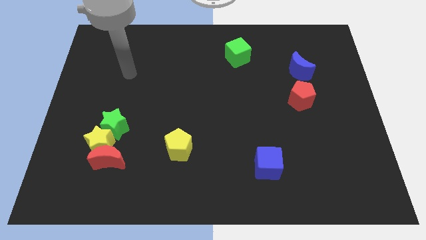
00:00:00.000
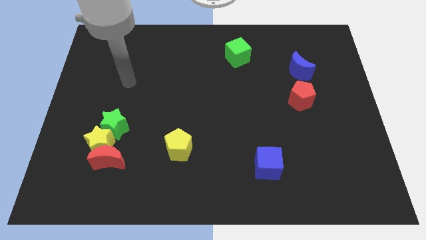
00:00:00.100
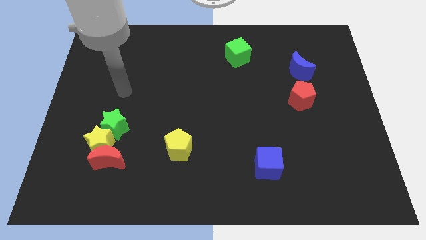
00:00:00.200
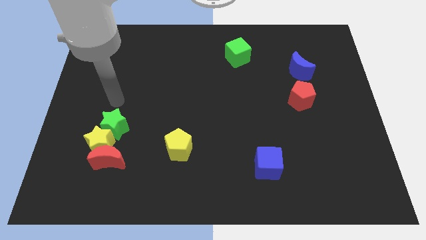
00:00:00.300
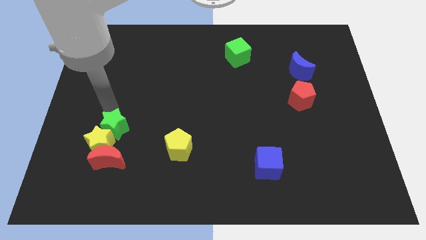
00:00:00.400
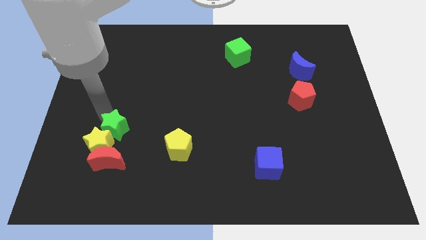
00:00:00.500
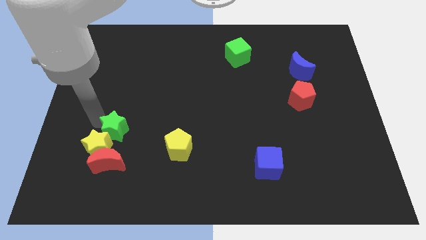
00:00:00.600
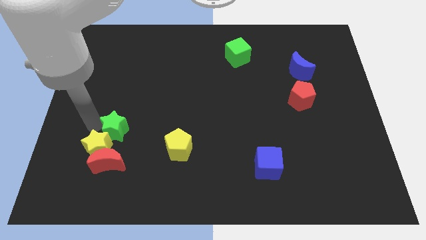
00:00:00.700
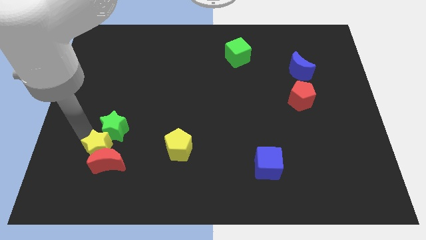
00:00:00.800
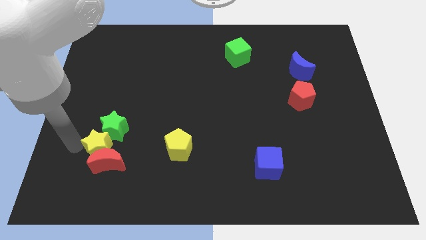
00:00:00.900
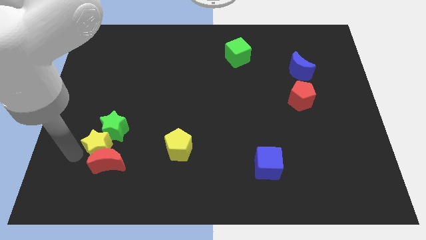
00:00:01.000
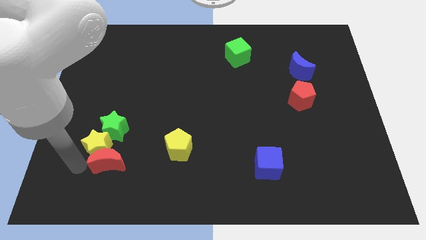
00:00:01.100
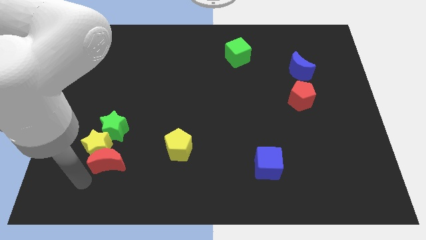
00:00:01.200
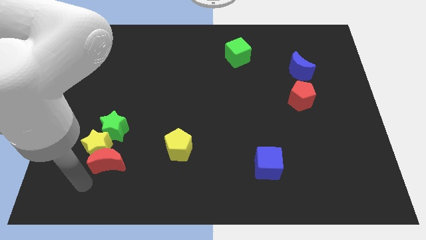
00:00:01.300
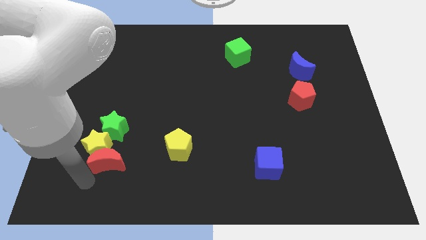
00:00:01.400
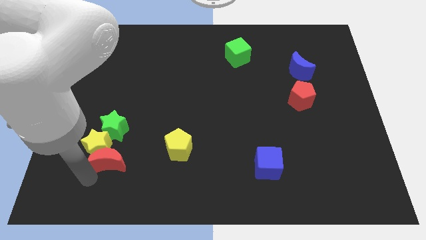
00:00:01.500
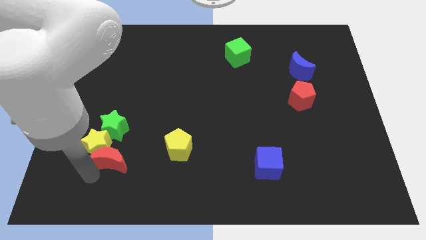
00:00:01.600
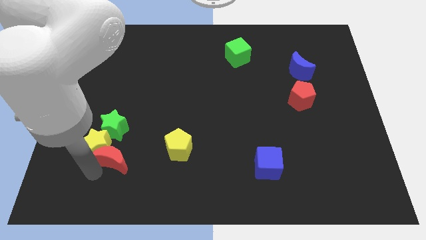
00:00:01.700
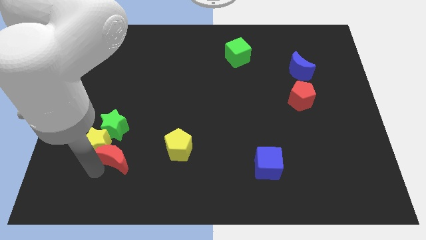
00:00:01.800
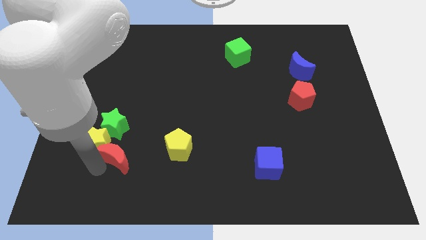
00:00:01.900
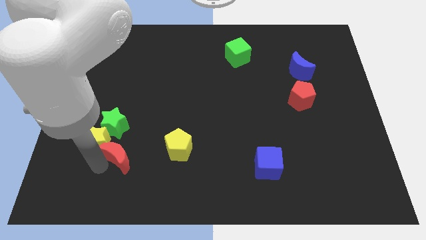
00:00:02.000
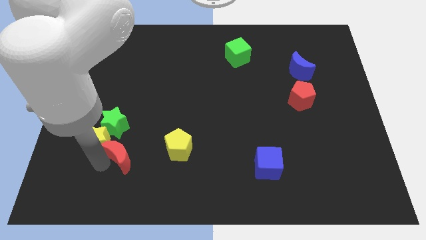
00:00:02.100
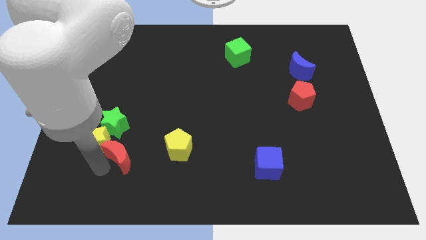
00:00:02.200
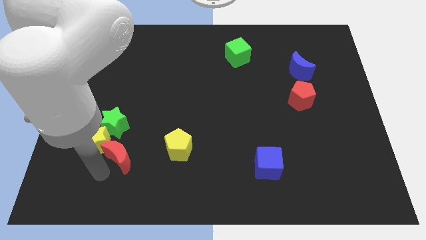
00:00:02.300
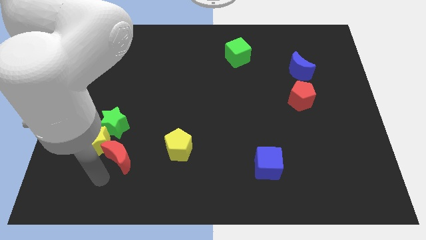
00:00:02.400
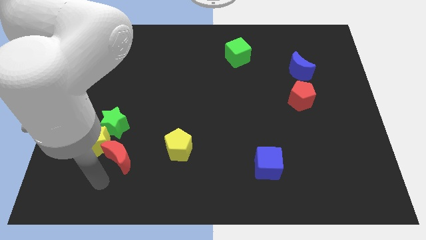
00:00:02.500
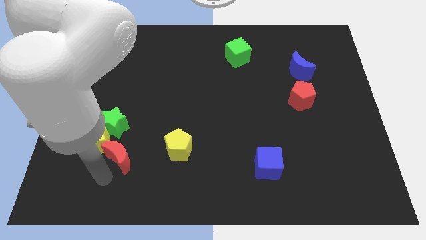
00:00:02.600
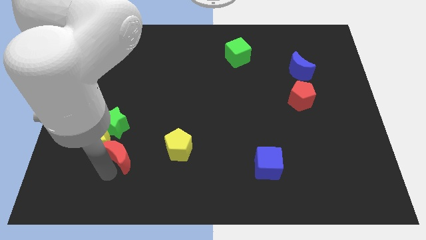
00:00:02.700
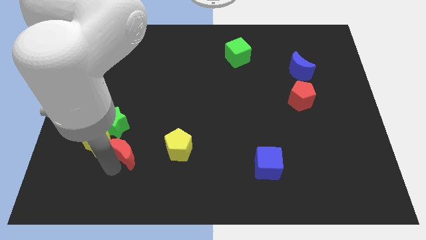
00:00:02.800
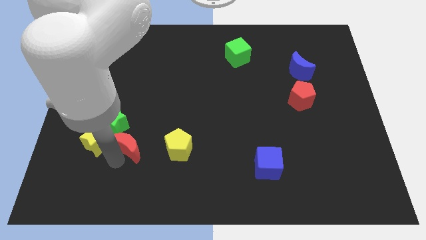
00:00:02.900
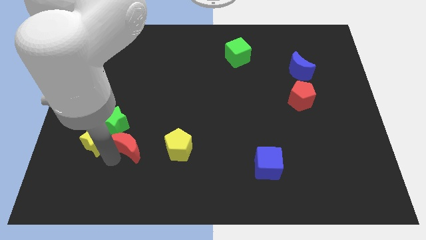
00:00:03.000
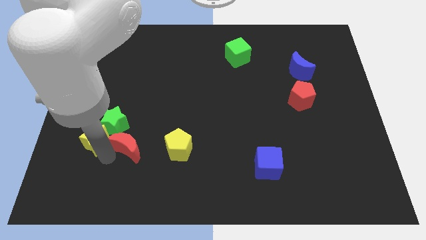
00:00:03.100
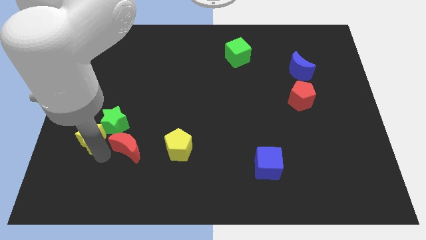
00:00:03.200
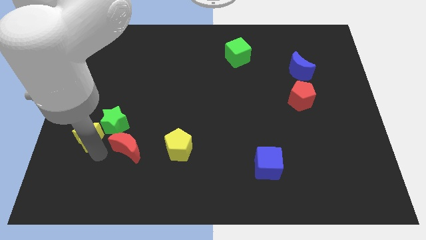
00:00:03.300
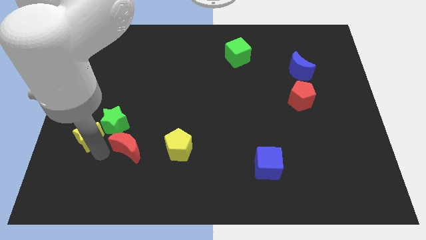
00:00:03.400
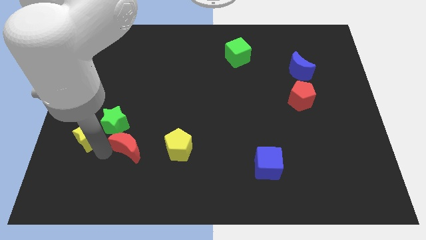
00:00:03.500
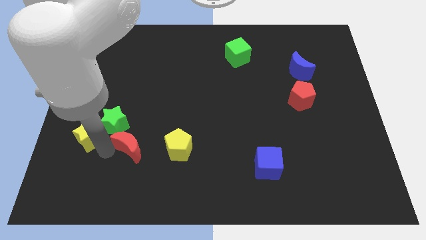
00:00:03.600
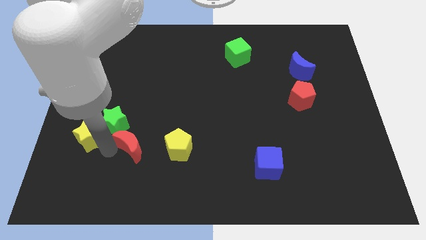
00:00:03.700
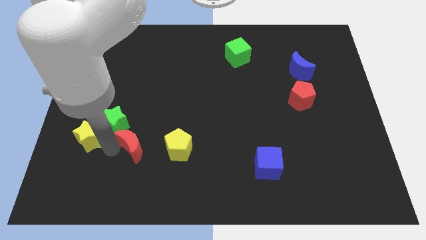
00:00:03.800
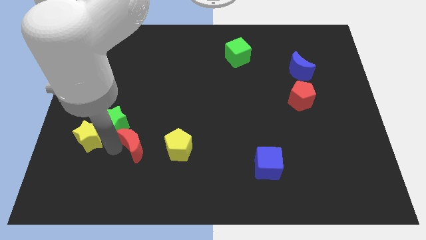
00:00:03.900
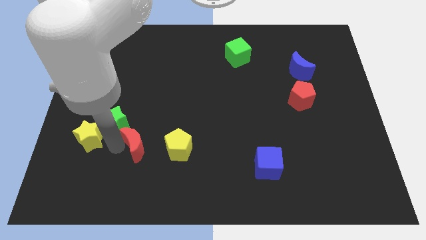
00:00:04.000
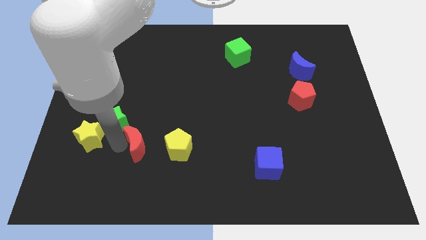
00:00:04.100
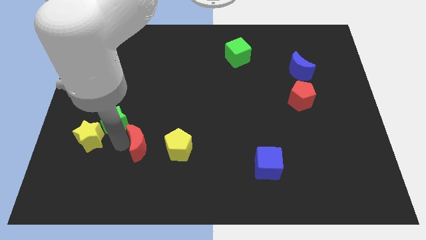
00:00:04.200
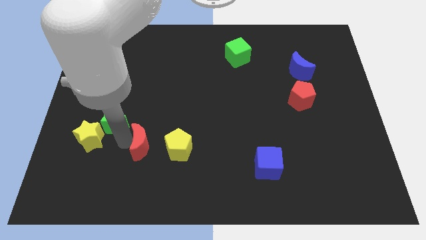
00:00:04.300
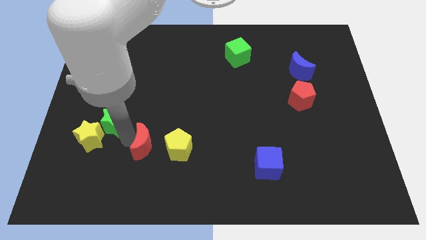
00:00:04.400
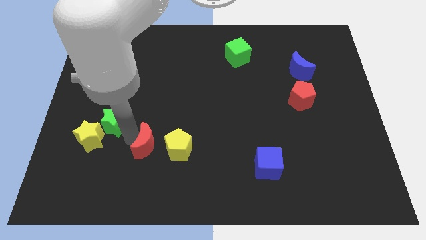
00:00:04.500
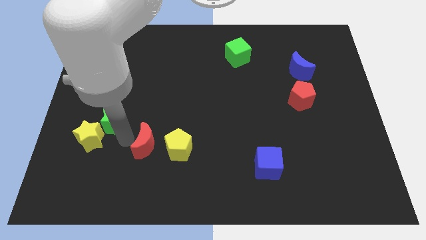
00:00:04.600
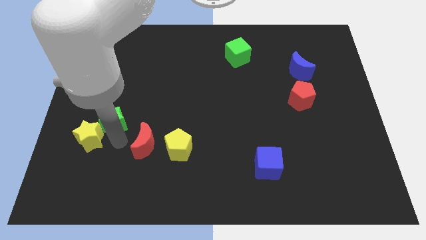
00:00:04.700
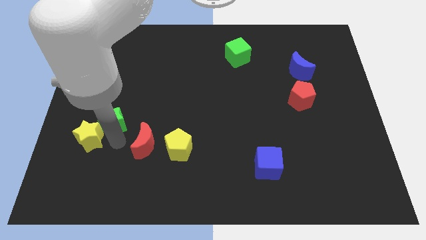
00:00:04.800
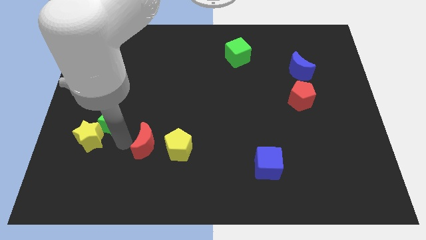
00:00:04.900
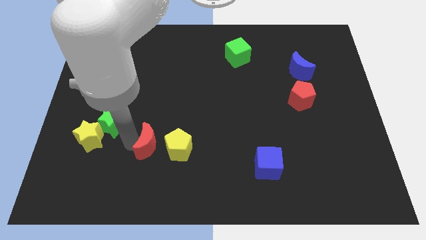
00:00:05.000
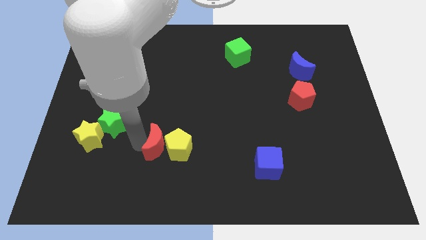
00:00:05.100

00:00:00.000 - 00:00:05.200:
push the red moon next to the yellow pentagon

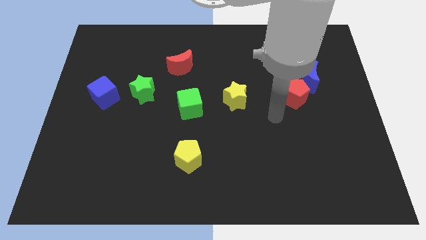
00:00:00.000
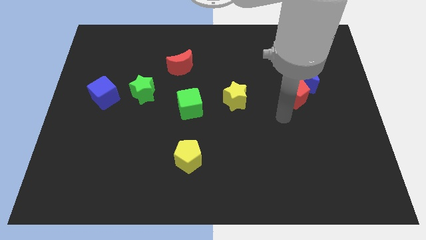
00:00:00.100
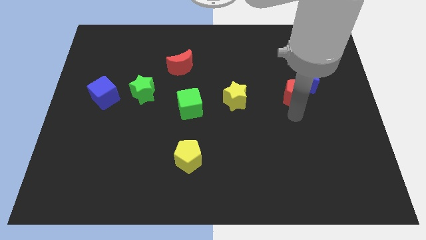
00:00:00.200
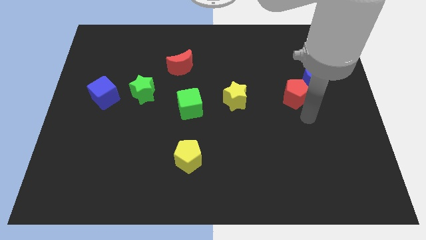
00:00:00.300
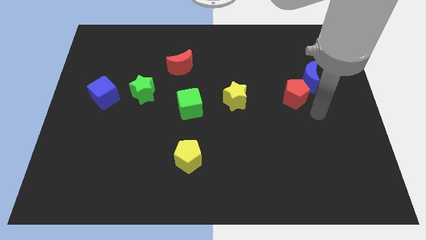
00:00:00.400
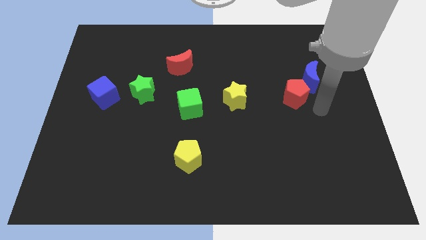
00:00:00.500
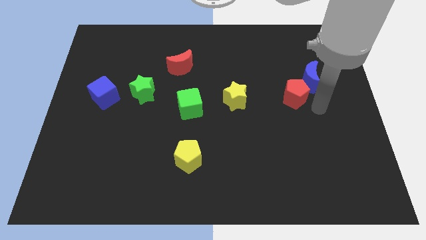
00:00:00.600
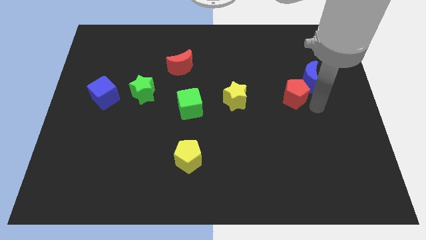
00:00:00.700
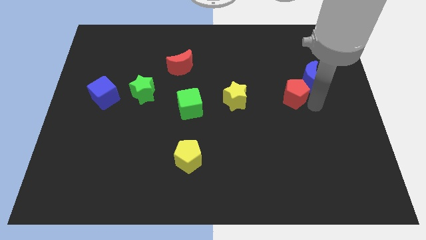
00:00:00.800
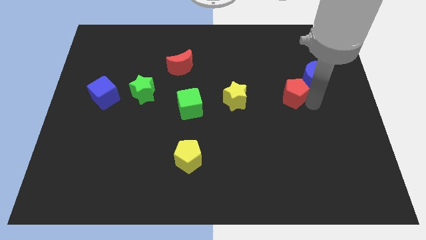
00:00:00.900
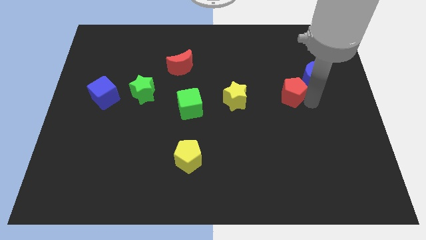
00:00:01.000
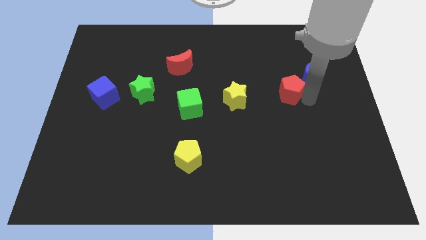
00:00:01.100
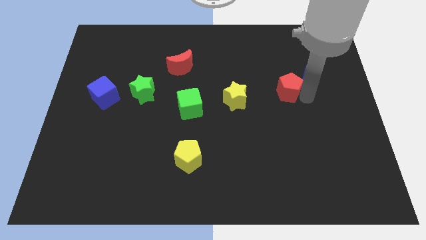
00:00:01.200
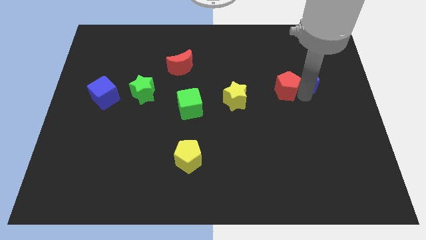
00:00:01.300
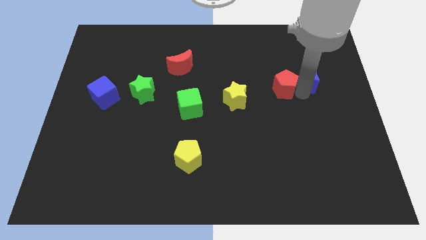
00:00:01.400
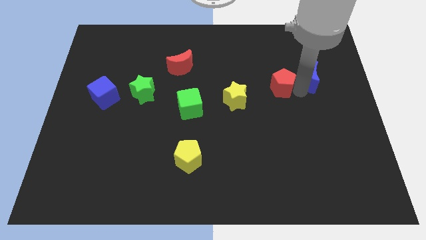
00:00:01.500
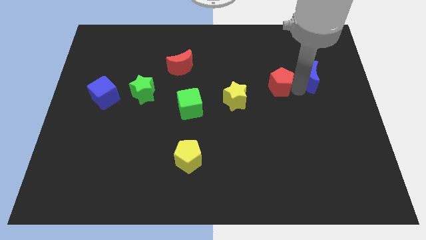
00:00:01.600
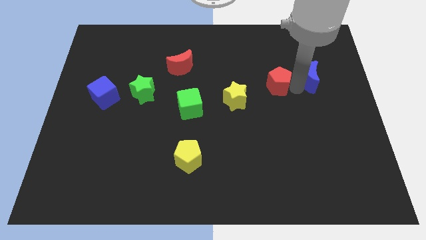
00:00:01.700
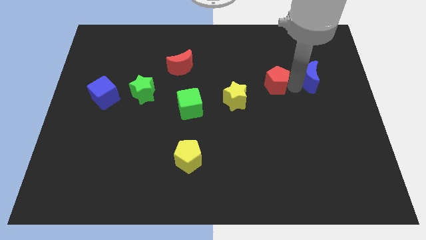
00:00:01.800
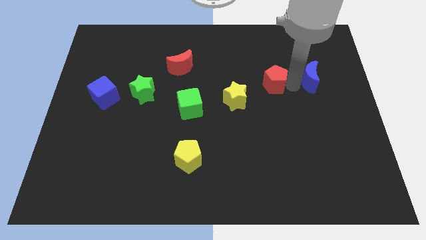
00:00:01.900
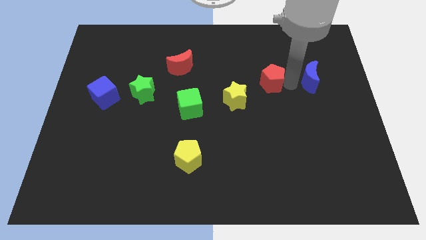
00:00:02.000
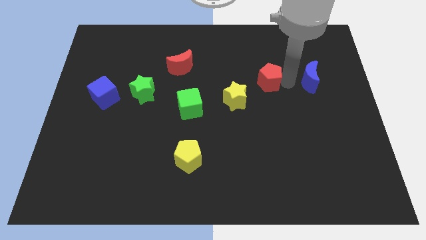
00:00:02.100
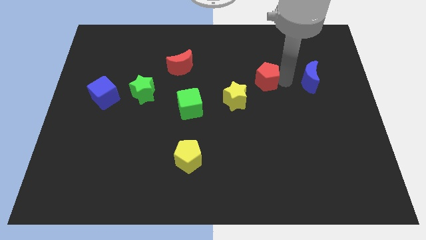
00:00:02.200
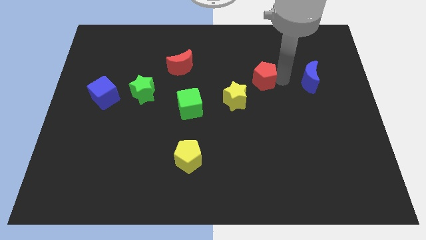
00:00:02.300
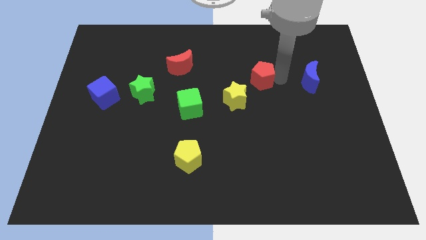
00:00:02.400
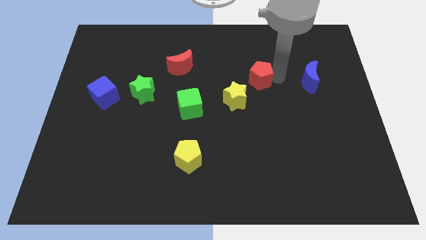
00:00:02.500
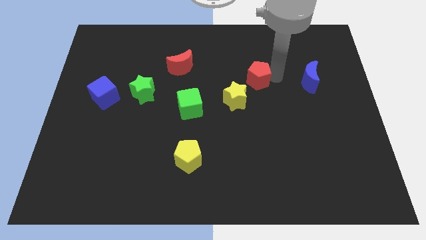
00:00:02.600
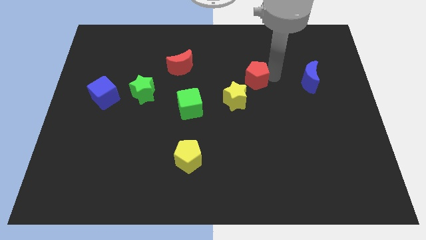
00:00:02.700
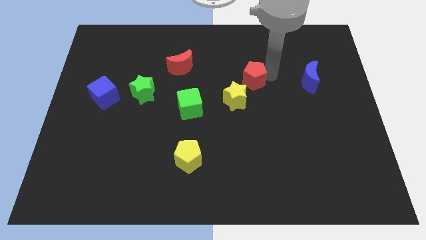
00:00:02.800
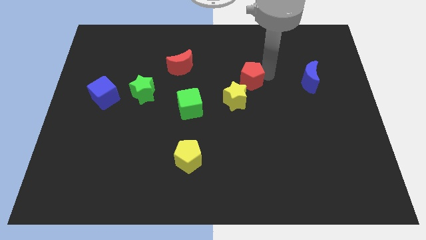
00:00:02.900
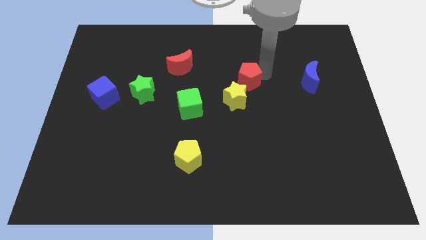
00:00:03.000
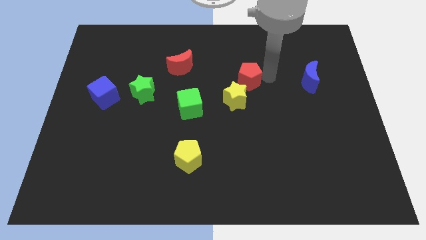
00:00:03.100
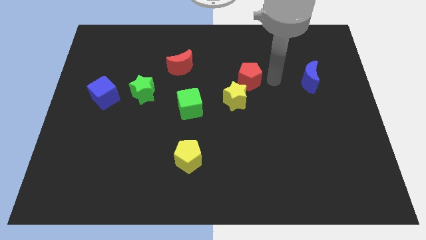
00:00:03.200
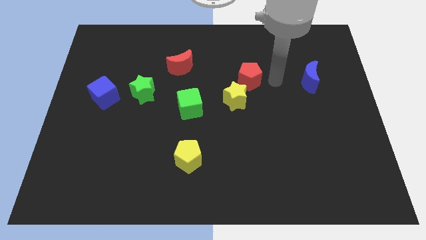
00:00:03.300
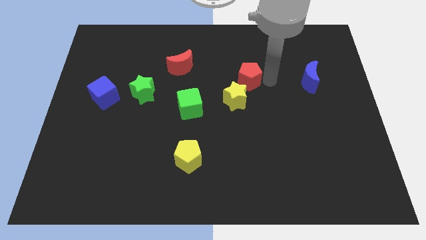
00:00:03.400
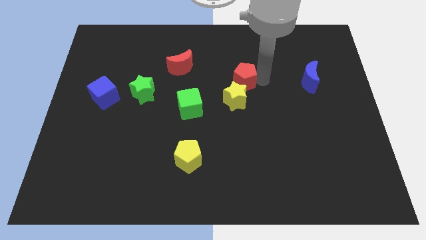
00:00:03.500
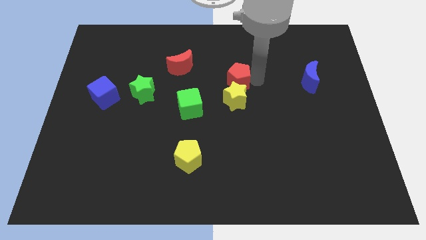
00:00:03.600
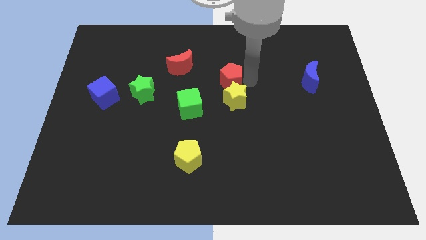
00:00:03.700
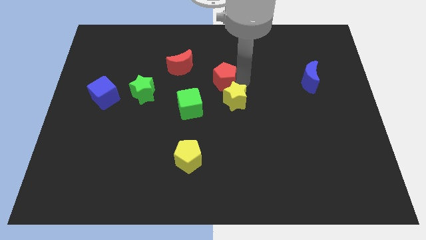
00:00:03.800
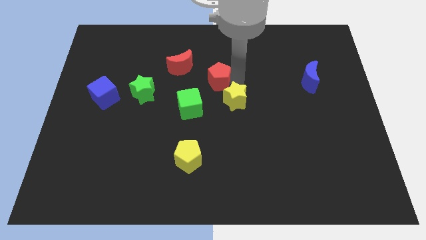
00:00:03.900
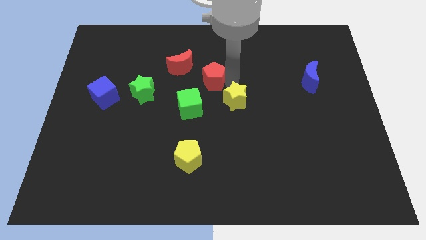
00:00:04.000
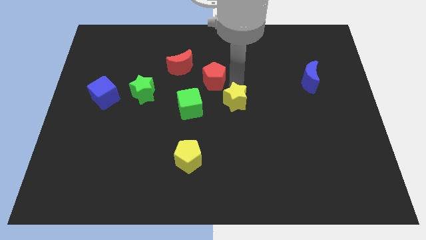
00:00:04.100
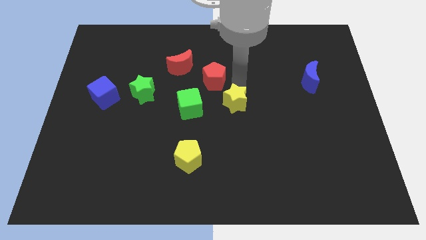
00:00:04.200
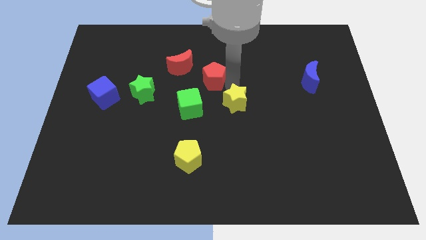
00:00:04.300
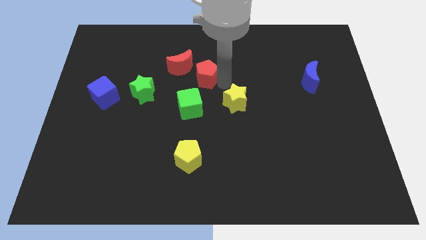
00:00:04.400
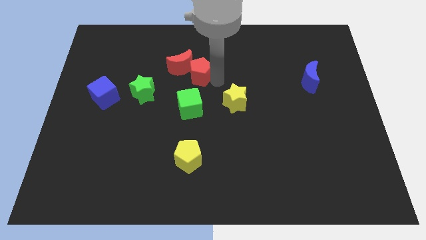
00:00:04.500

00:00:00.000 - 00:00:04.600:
slide the red pentagon to the red moon
